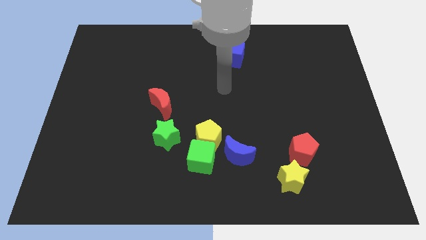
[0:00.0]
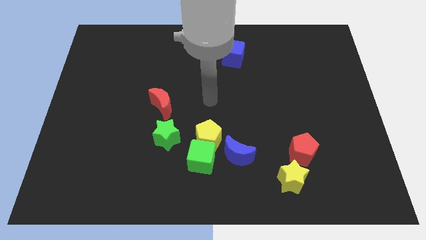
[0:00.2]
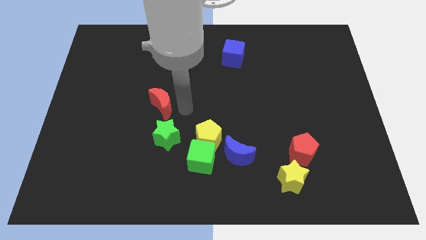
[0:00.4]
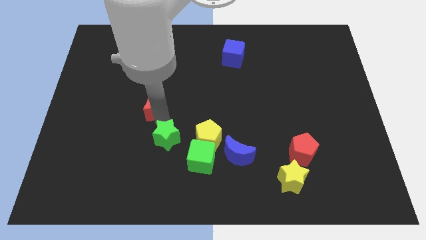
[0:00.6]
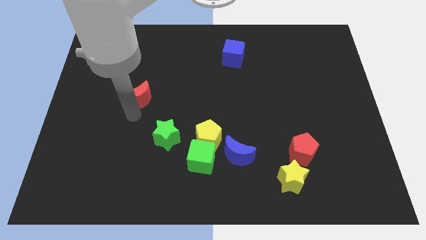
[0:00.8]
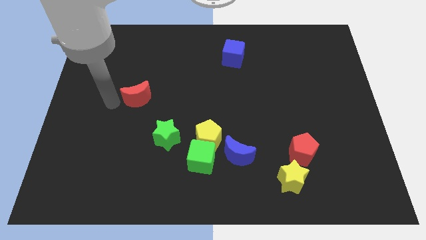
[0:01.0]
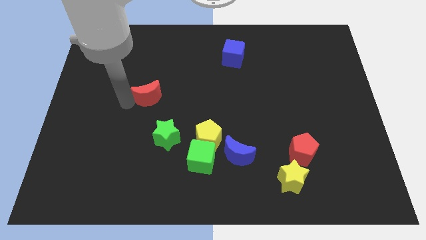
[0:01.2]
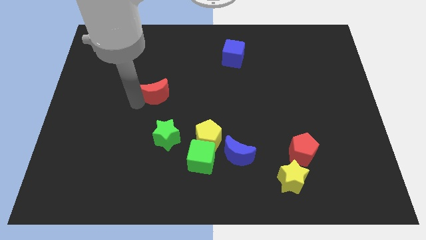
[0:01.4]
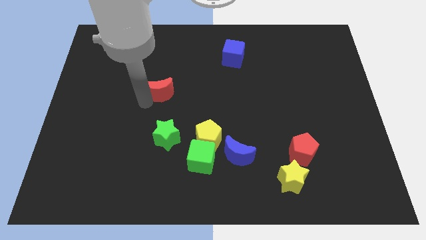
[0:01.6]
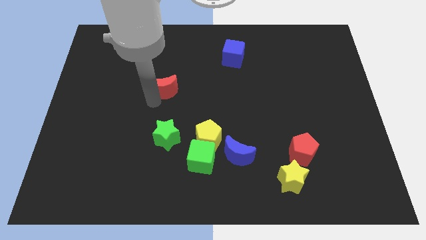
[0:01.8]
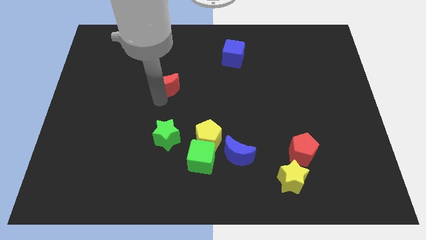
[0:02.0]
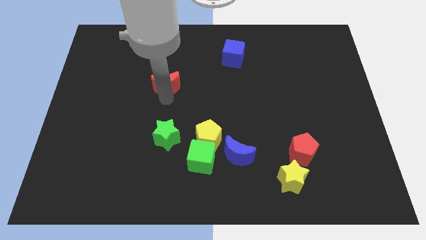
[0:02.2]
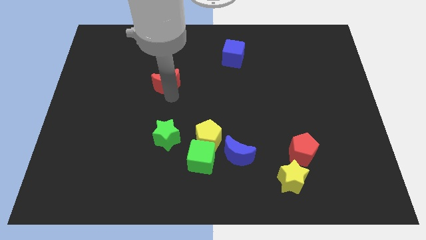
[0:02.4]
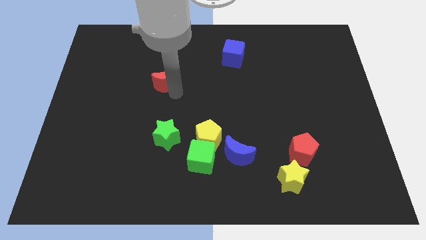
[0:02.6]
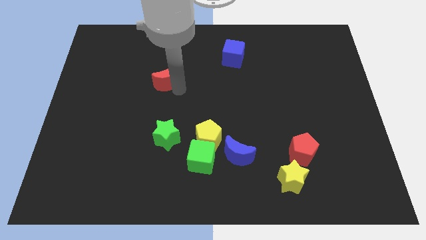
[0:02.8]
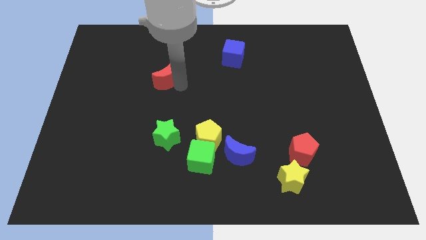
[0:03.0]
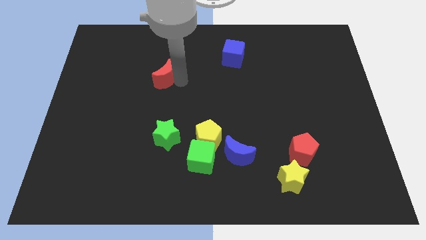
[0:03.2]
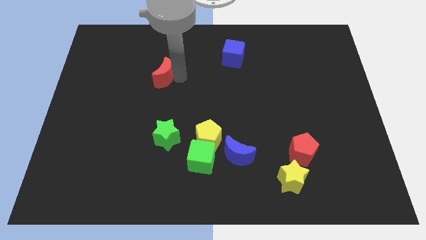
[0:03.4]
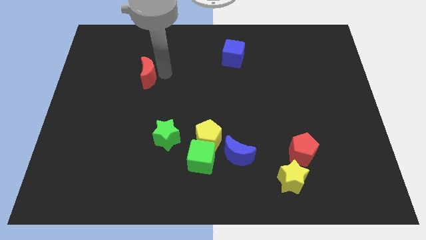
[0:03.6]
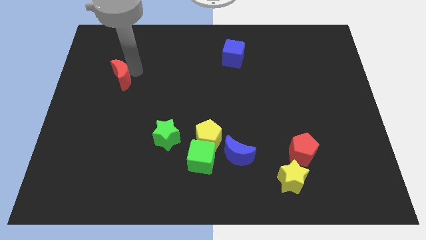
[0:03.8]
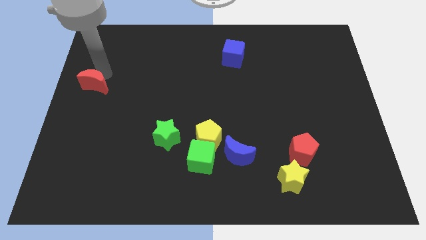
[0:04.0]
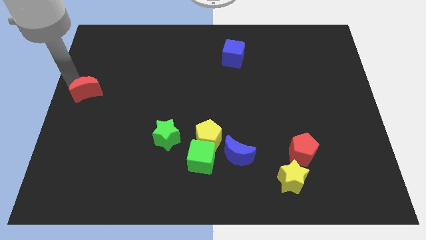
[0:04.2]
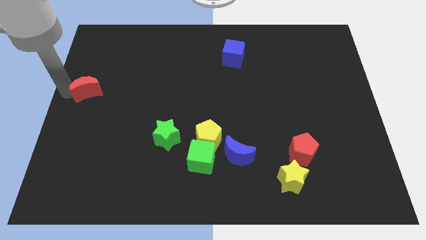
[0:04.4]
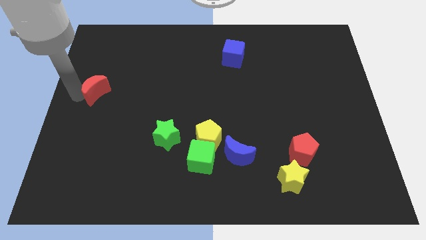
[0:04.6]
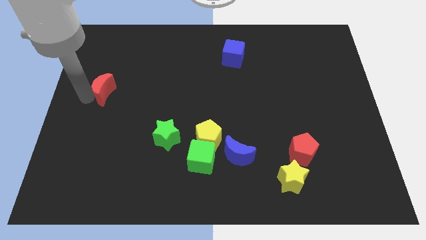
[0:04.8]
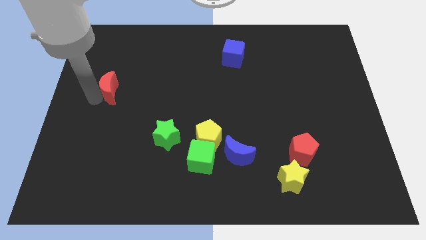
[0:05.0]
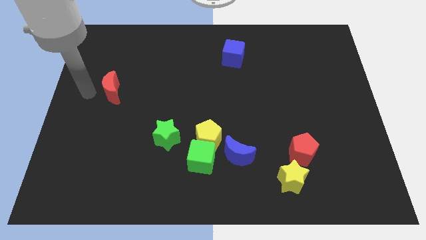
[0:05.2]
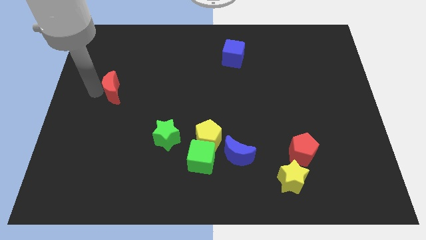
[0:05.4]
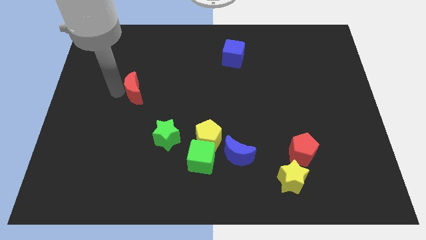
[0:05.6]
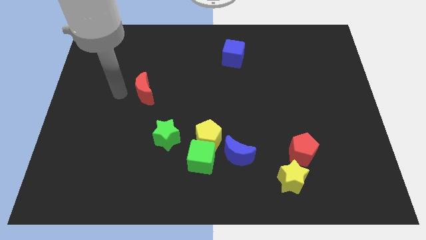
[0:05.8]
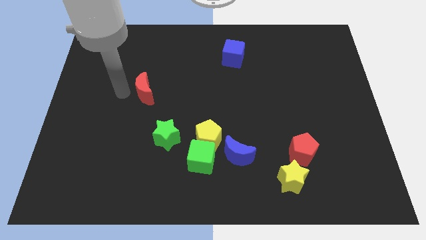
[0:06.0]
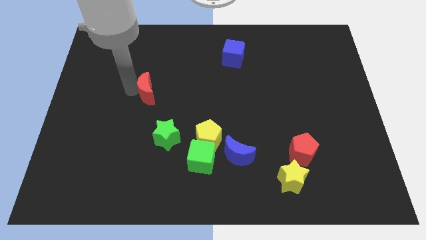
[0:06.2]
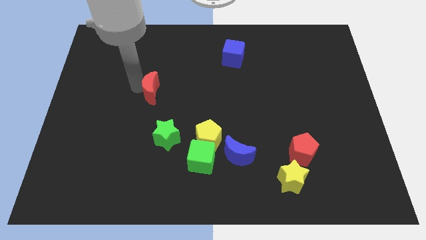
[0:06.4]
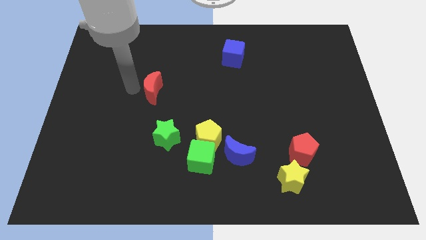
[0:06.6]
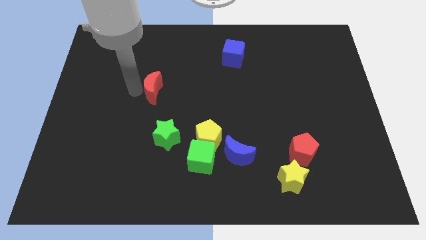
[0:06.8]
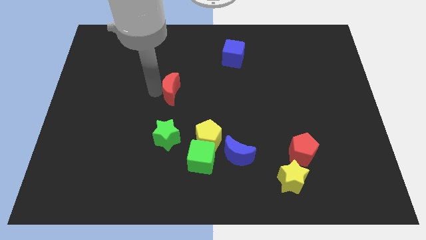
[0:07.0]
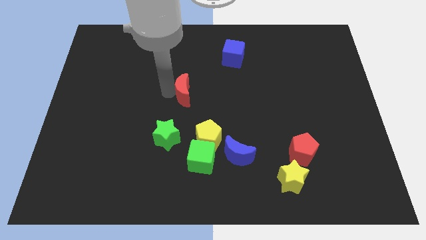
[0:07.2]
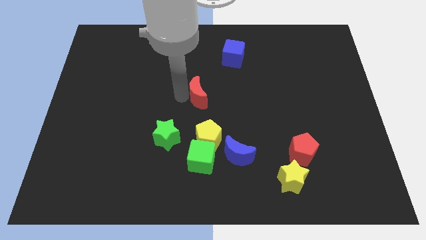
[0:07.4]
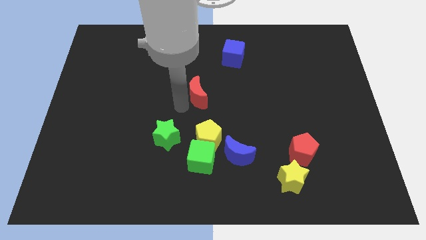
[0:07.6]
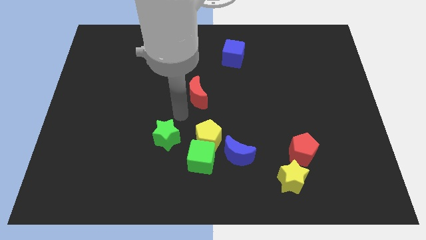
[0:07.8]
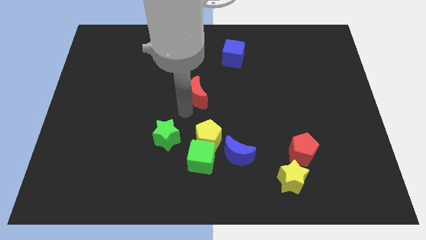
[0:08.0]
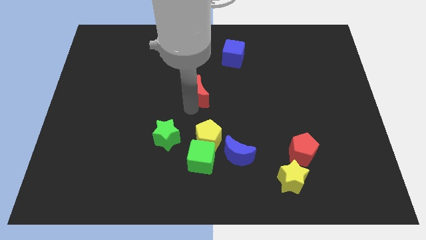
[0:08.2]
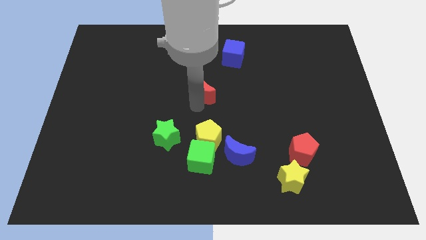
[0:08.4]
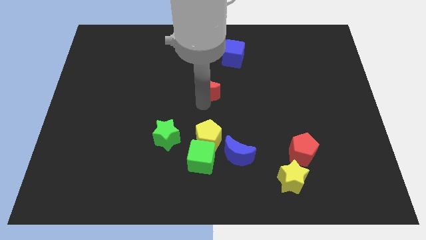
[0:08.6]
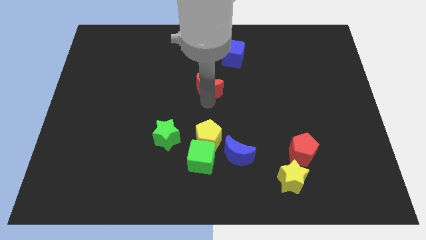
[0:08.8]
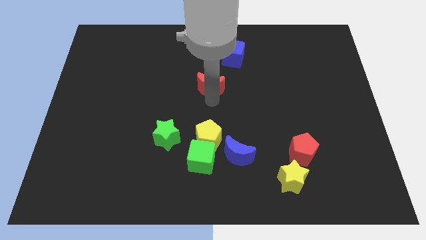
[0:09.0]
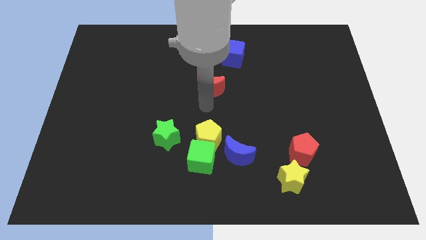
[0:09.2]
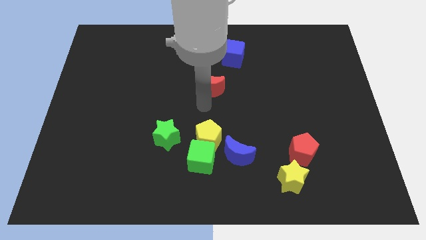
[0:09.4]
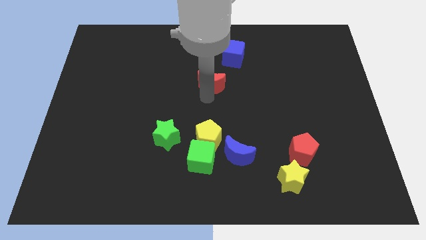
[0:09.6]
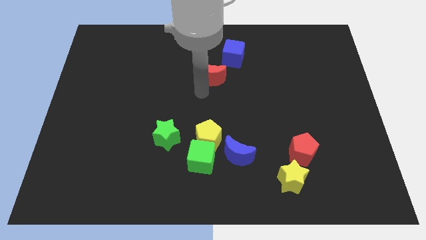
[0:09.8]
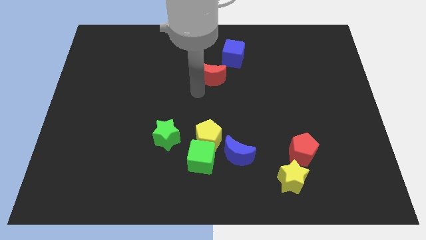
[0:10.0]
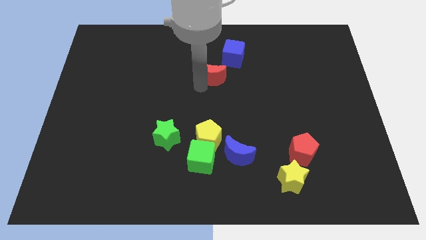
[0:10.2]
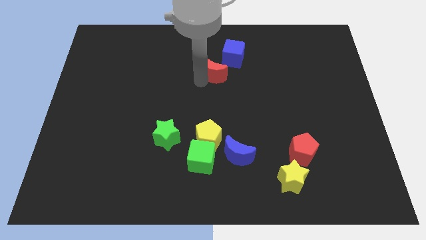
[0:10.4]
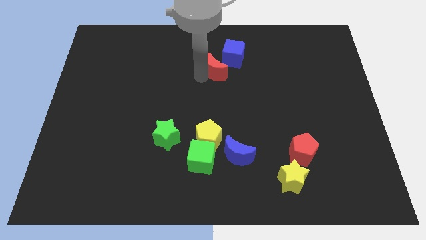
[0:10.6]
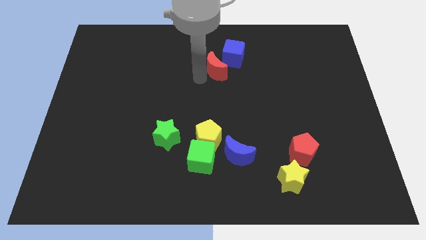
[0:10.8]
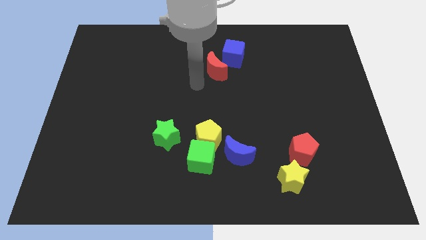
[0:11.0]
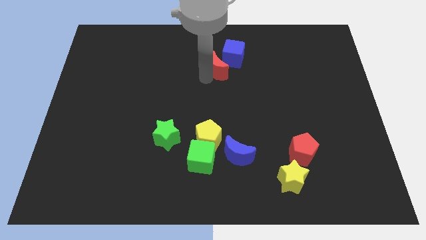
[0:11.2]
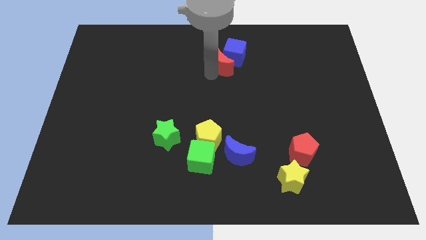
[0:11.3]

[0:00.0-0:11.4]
put the red moon close to the blue cube

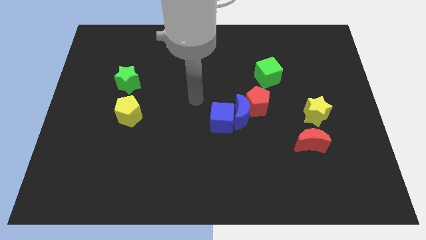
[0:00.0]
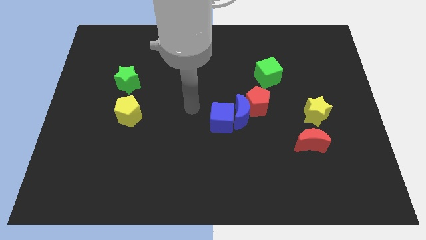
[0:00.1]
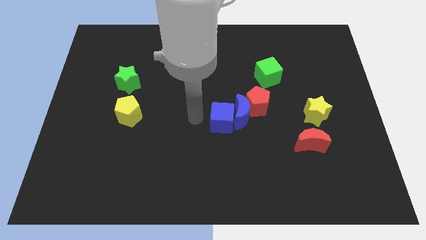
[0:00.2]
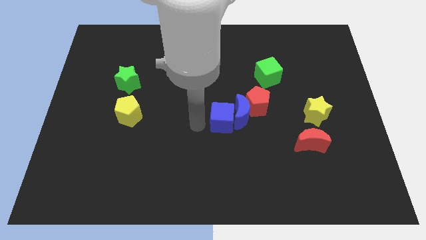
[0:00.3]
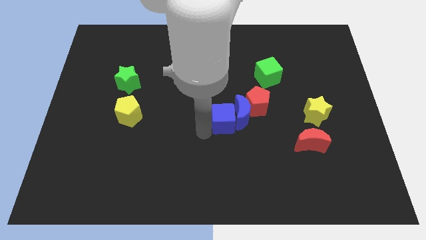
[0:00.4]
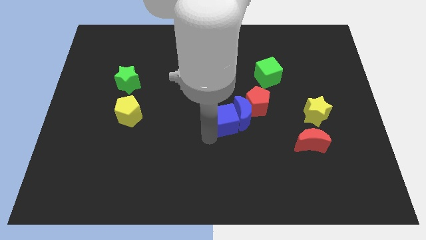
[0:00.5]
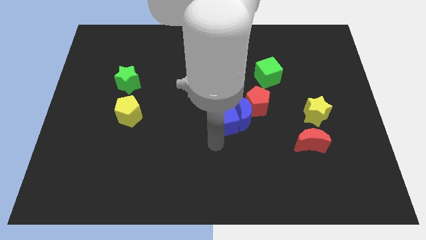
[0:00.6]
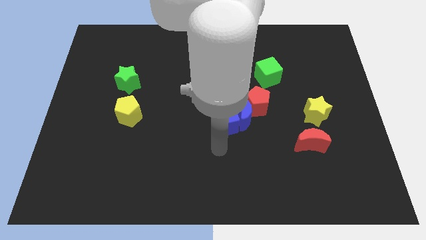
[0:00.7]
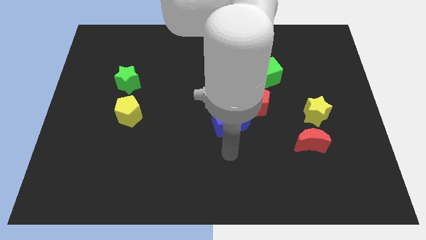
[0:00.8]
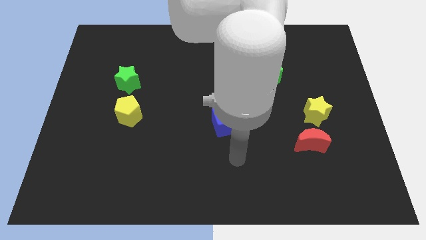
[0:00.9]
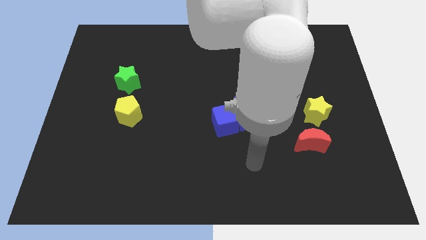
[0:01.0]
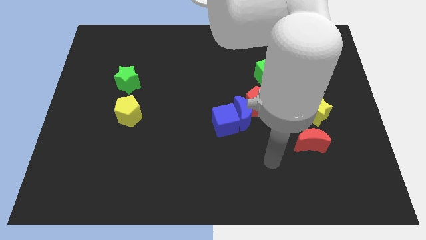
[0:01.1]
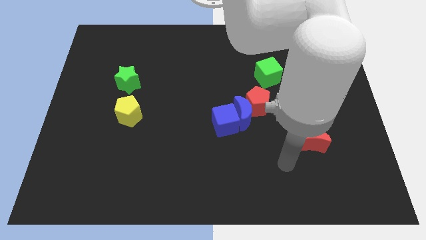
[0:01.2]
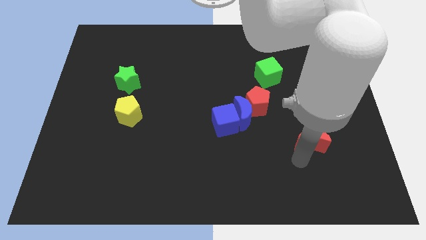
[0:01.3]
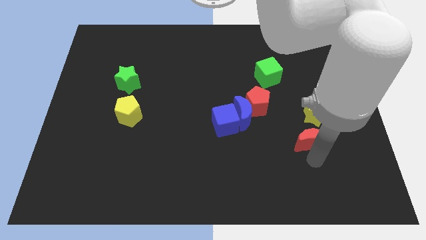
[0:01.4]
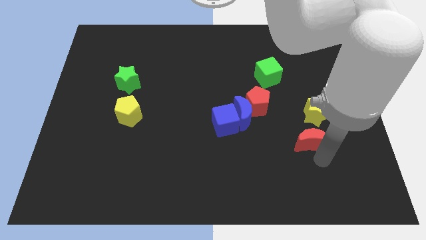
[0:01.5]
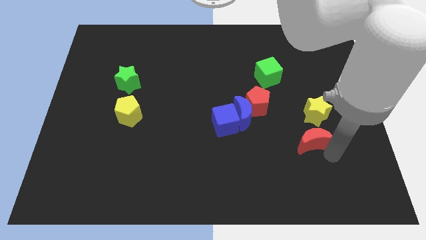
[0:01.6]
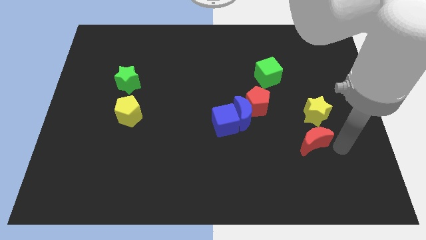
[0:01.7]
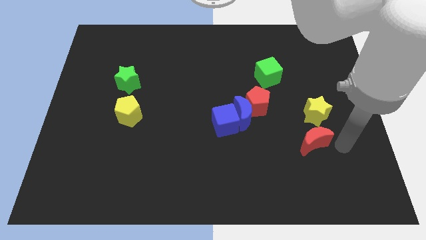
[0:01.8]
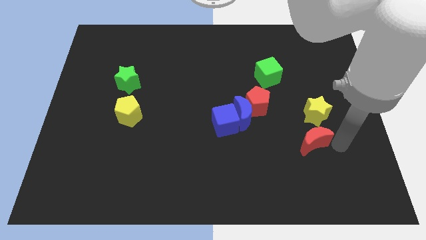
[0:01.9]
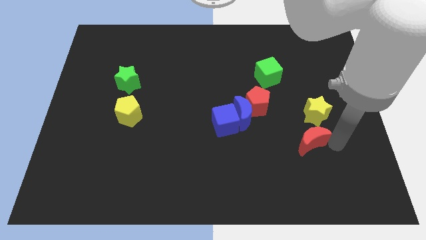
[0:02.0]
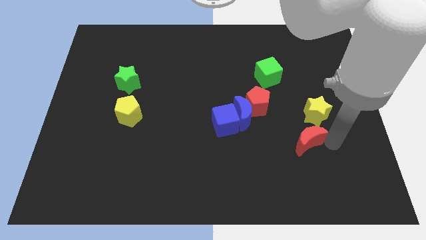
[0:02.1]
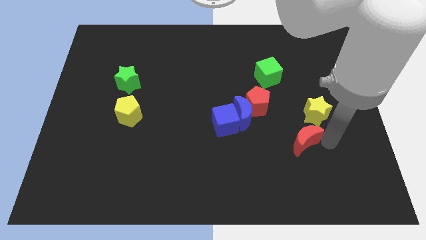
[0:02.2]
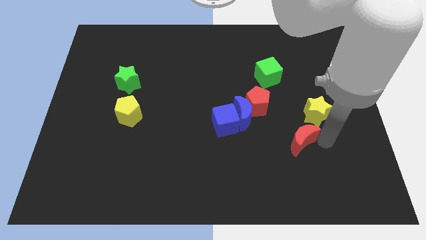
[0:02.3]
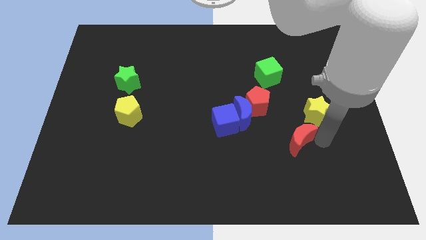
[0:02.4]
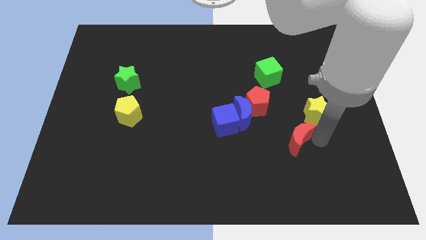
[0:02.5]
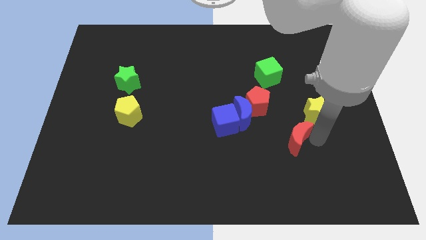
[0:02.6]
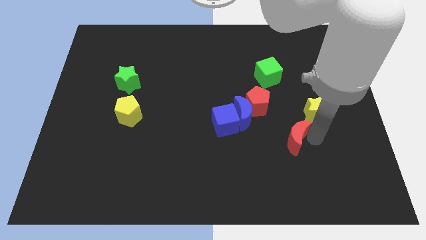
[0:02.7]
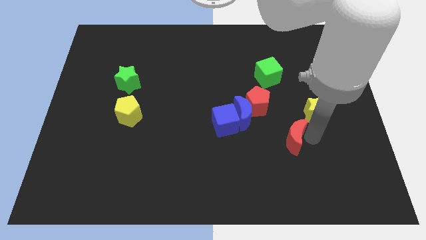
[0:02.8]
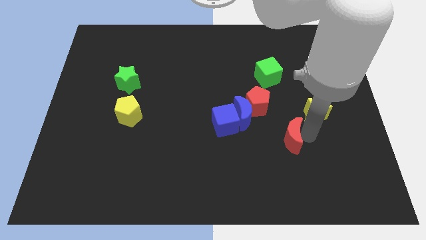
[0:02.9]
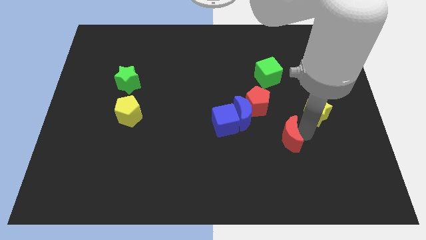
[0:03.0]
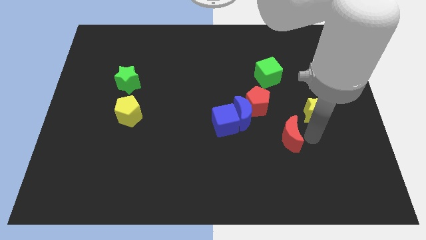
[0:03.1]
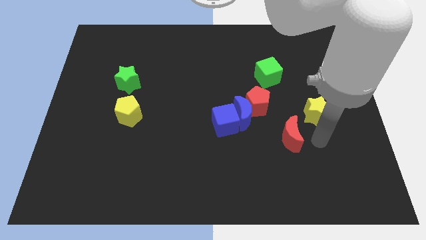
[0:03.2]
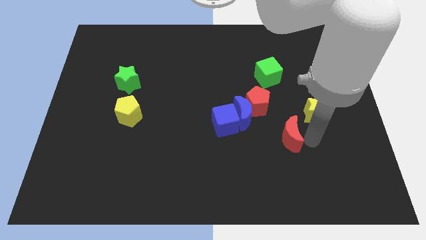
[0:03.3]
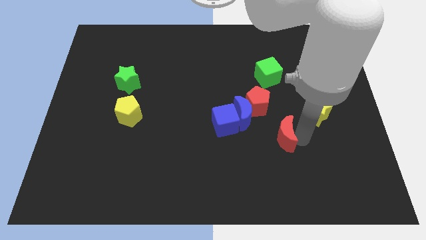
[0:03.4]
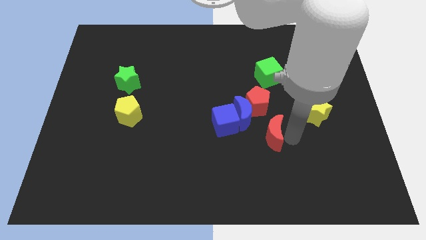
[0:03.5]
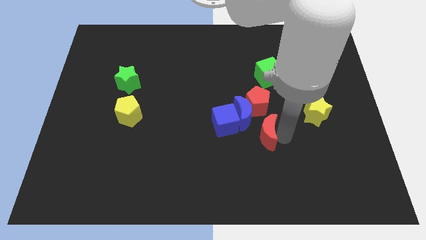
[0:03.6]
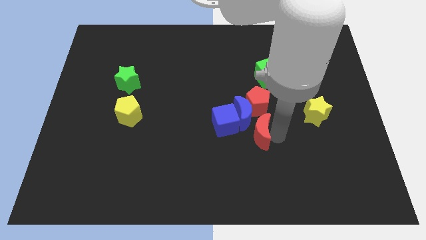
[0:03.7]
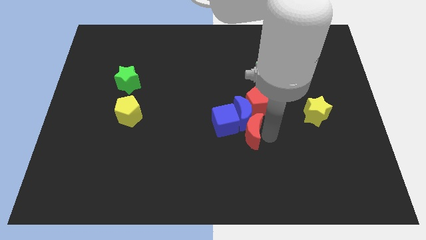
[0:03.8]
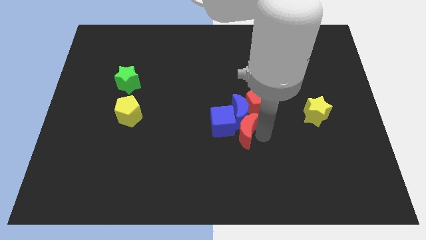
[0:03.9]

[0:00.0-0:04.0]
put the red moon towards the blue cube
